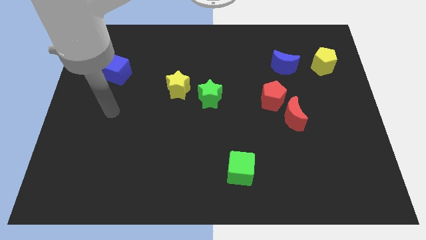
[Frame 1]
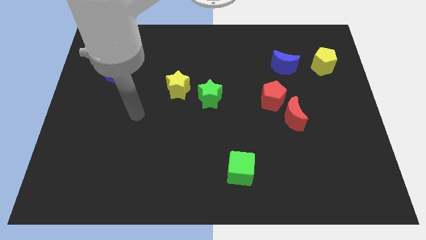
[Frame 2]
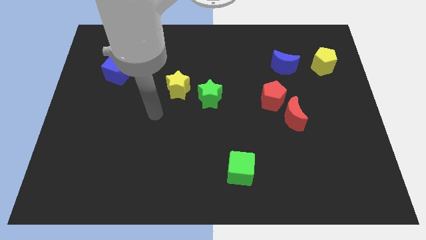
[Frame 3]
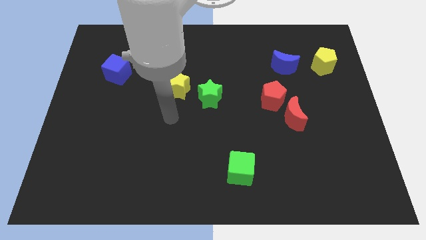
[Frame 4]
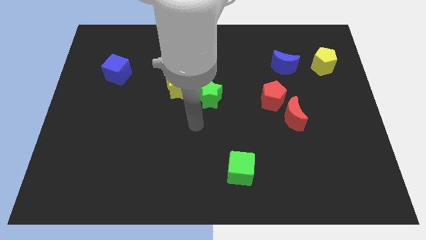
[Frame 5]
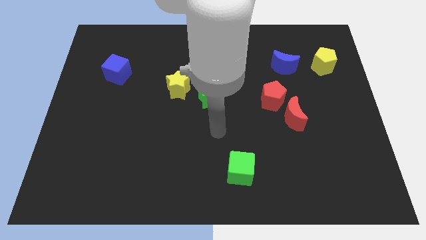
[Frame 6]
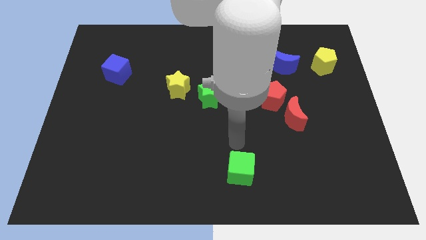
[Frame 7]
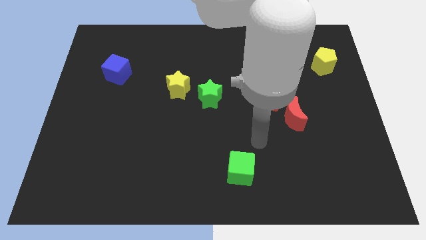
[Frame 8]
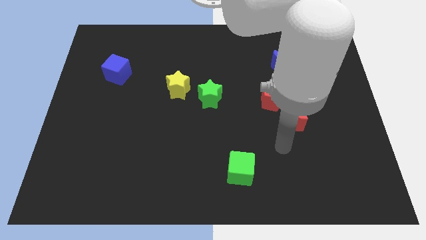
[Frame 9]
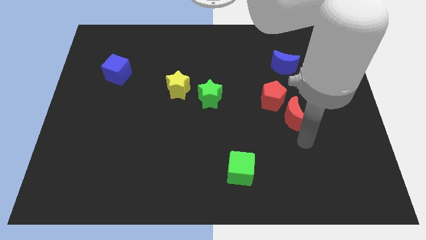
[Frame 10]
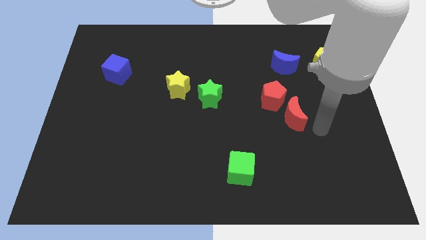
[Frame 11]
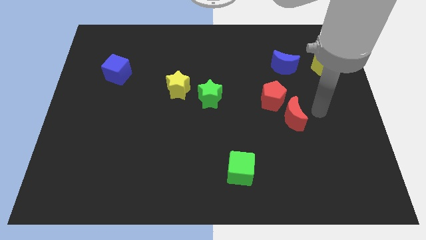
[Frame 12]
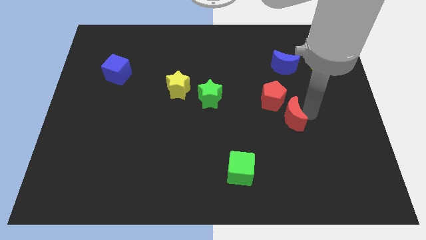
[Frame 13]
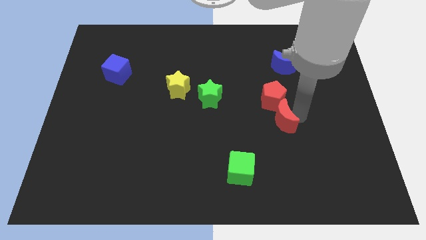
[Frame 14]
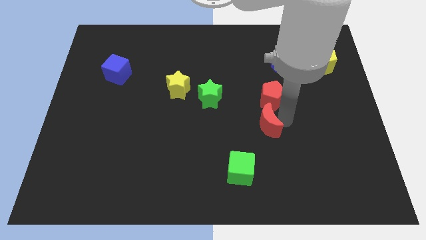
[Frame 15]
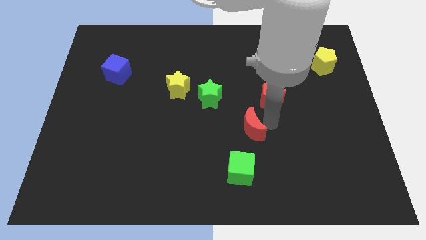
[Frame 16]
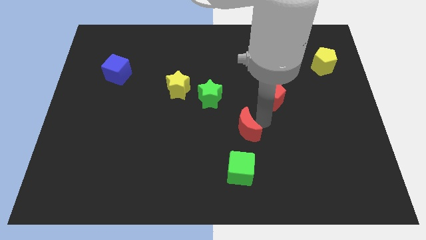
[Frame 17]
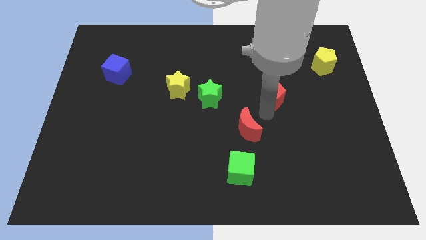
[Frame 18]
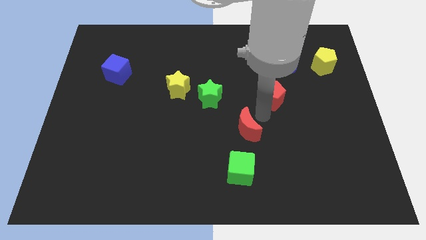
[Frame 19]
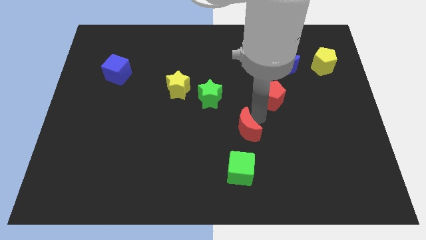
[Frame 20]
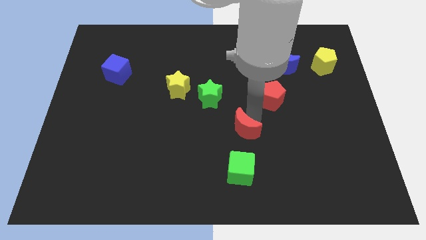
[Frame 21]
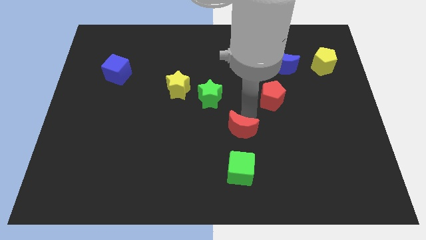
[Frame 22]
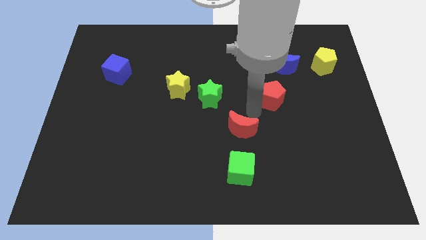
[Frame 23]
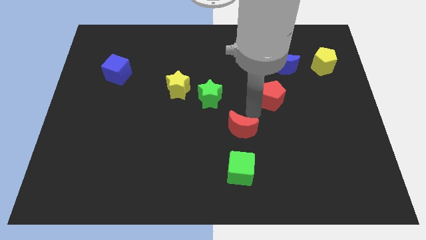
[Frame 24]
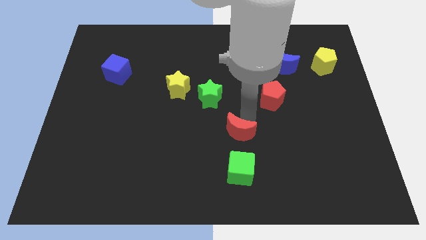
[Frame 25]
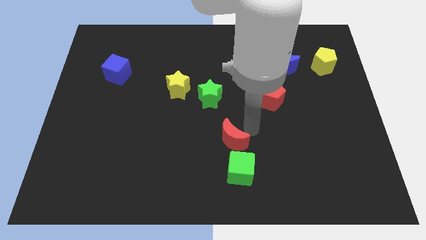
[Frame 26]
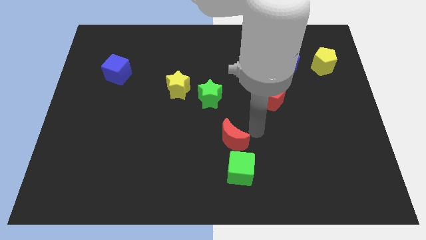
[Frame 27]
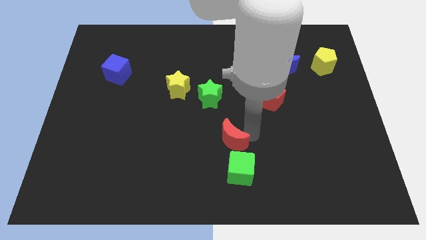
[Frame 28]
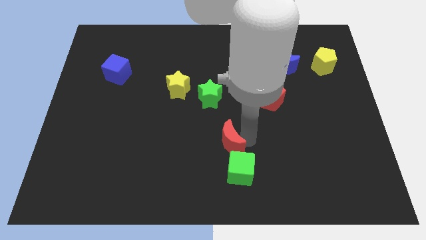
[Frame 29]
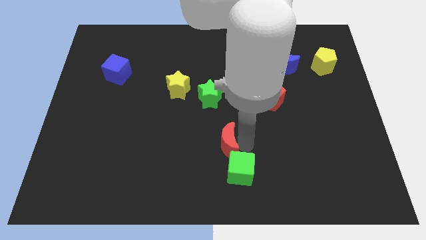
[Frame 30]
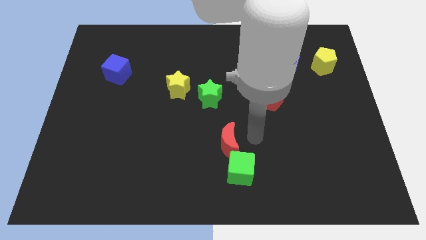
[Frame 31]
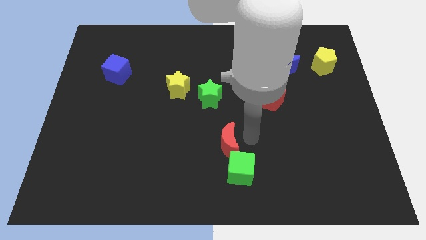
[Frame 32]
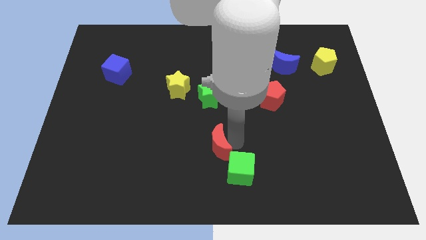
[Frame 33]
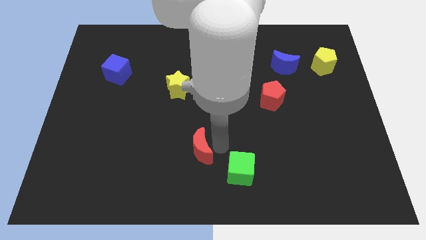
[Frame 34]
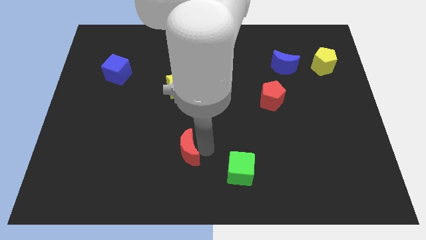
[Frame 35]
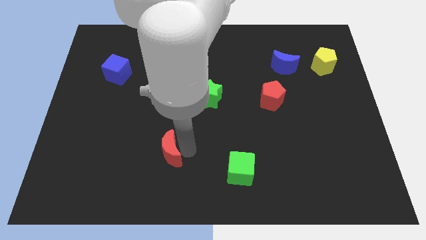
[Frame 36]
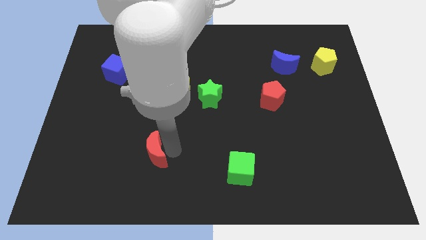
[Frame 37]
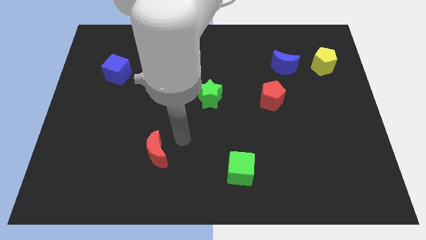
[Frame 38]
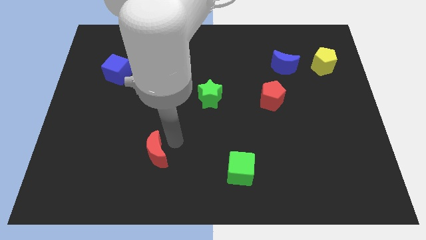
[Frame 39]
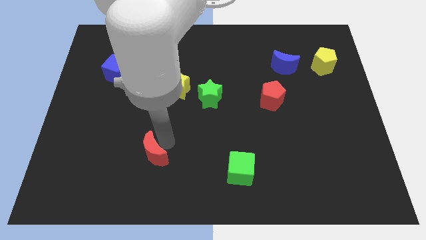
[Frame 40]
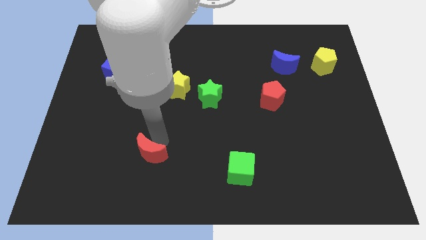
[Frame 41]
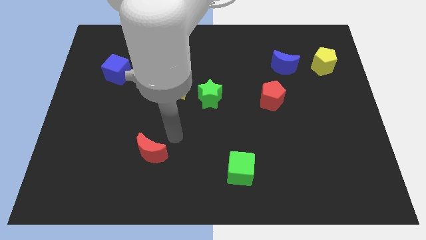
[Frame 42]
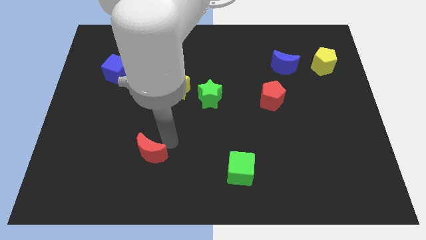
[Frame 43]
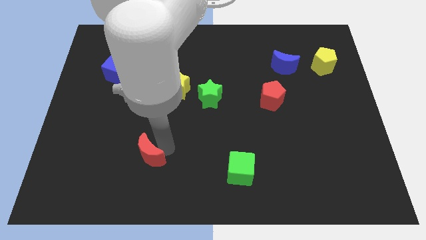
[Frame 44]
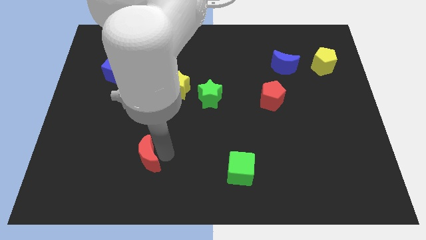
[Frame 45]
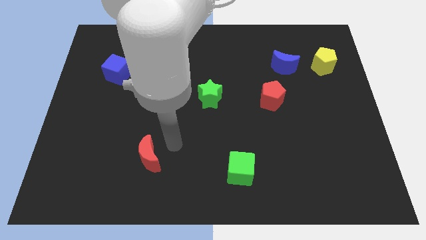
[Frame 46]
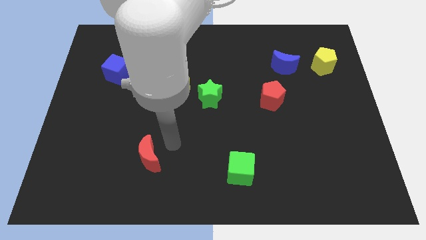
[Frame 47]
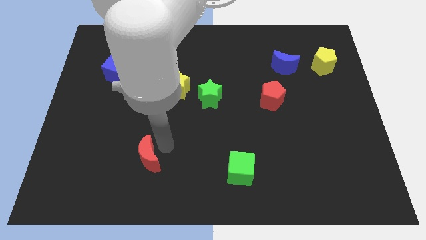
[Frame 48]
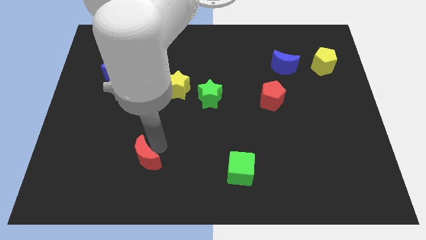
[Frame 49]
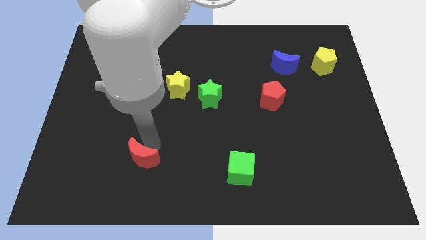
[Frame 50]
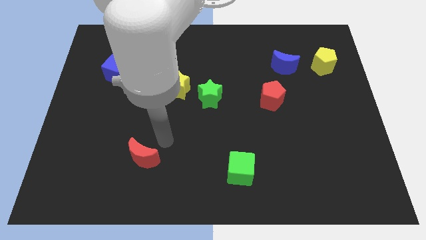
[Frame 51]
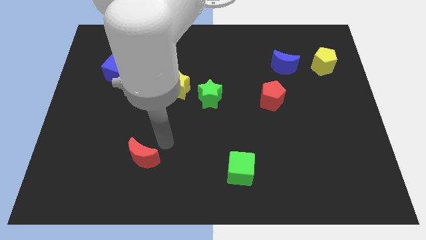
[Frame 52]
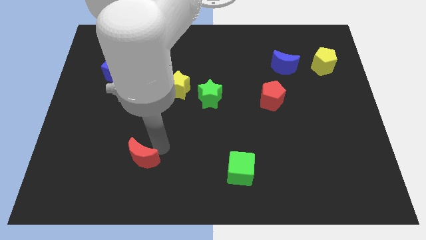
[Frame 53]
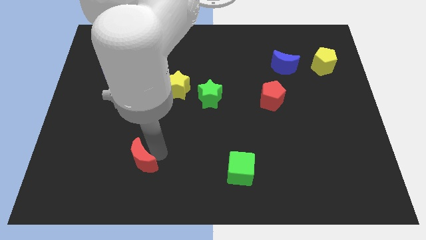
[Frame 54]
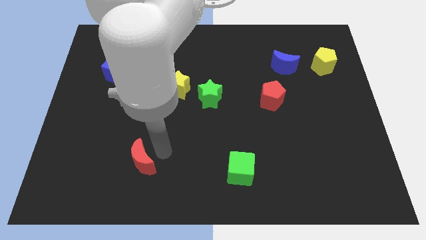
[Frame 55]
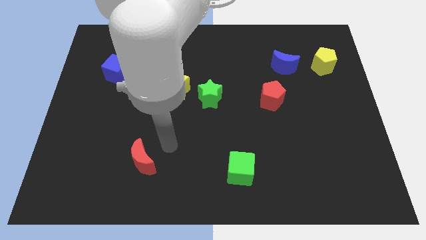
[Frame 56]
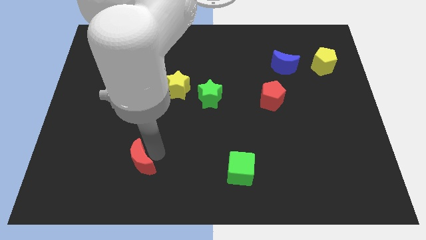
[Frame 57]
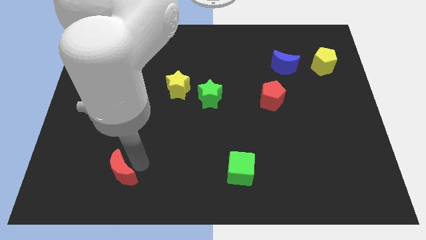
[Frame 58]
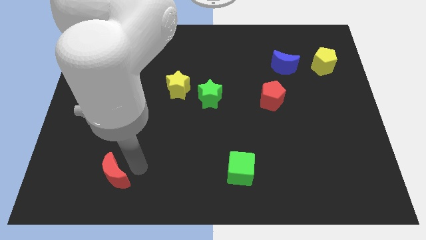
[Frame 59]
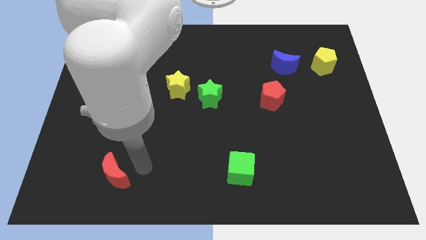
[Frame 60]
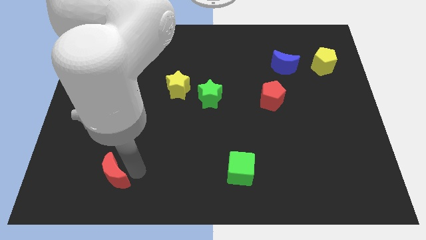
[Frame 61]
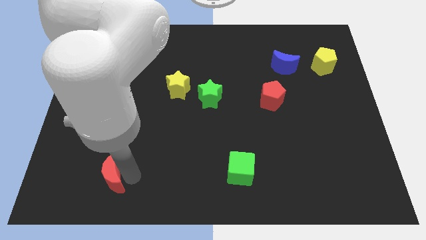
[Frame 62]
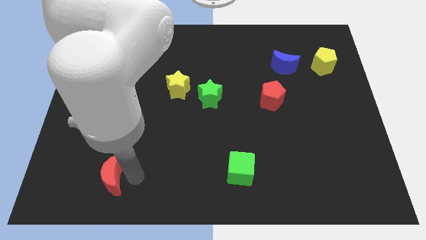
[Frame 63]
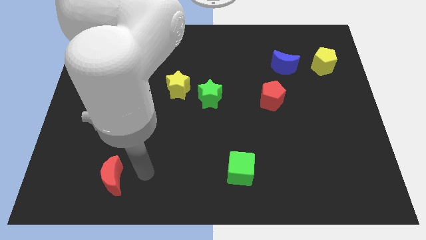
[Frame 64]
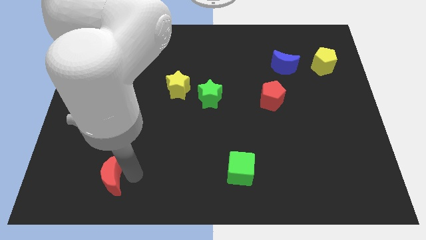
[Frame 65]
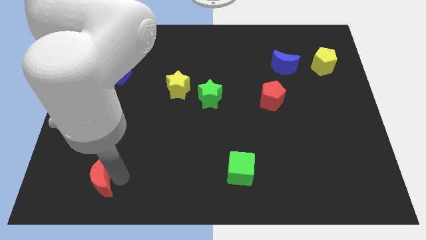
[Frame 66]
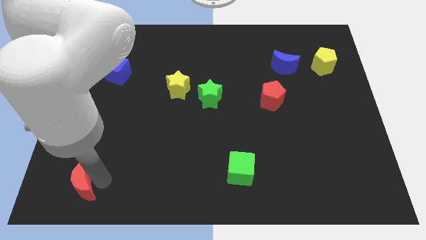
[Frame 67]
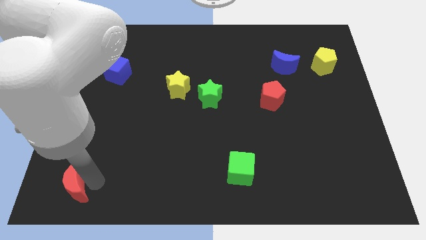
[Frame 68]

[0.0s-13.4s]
put the red moon to the bottom left of the board
